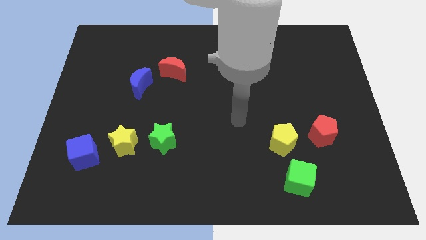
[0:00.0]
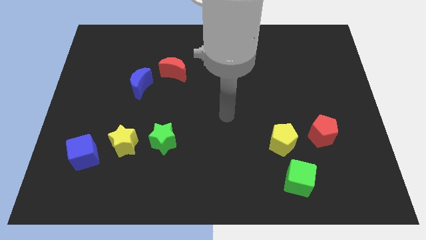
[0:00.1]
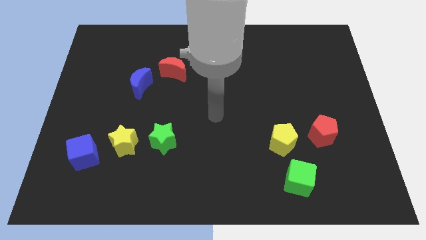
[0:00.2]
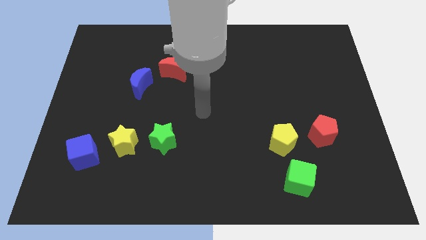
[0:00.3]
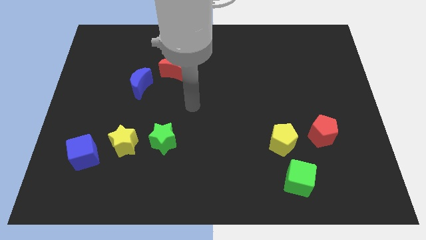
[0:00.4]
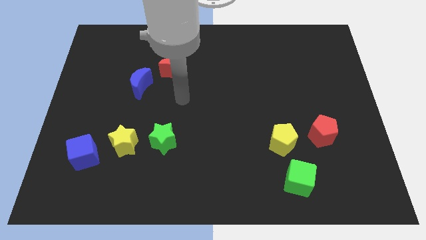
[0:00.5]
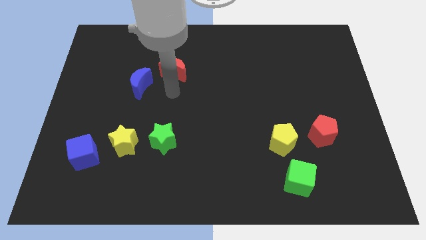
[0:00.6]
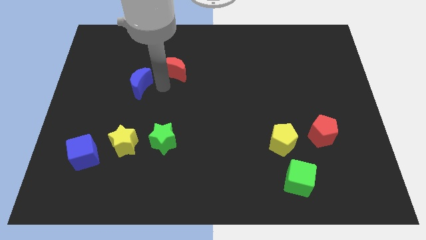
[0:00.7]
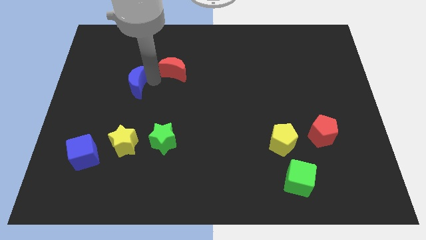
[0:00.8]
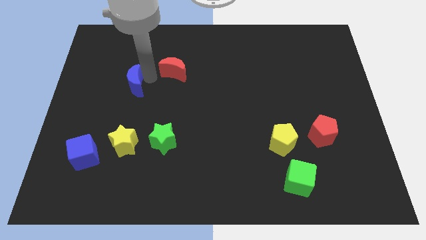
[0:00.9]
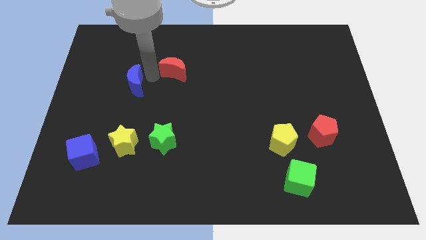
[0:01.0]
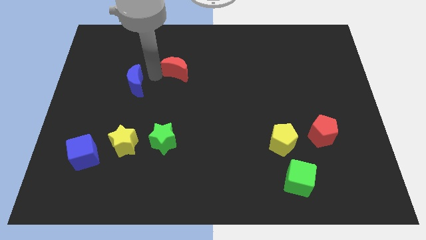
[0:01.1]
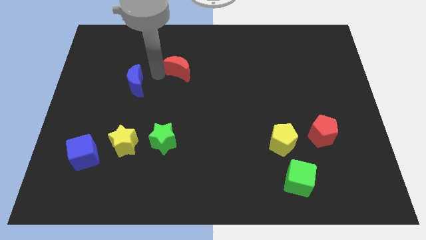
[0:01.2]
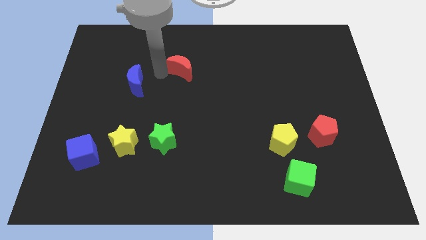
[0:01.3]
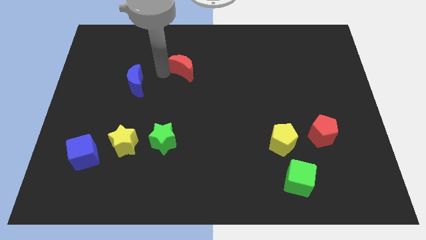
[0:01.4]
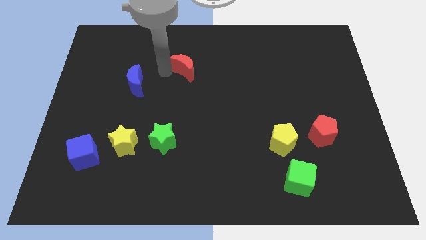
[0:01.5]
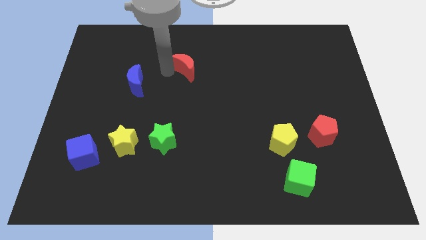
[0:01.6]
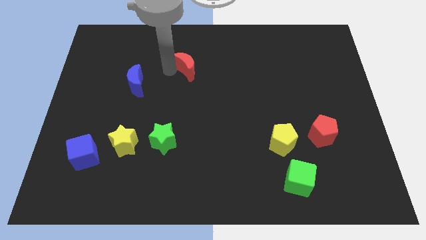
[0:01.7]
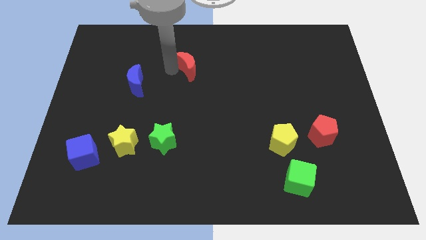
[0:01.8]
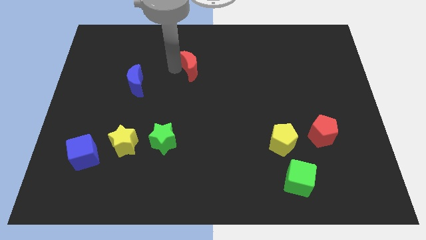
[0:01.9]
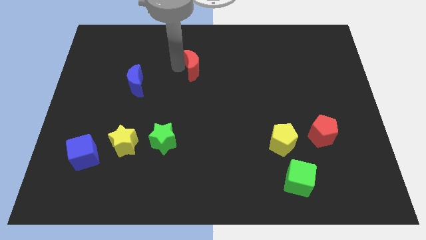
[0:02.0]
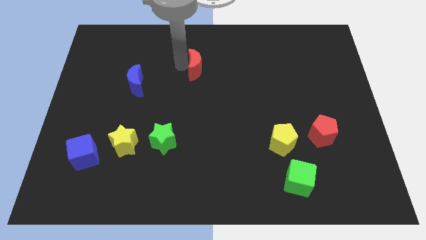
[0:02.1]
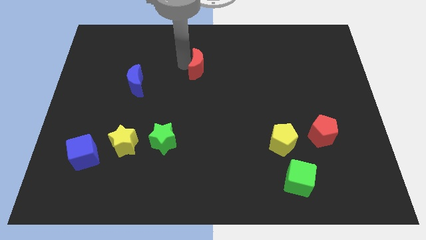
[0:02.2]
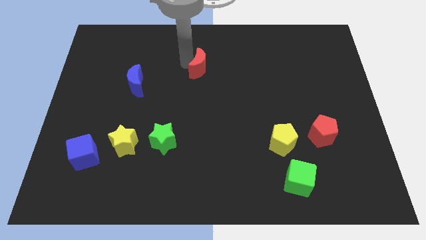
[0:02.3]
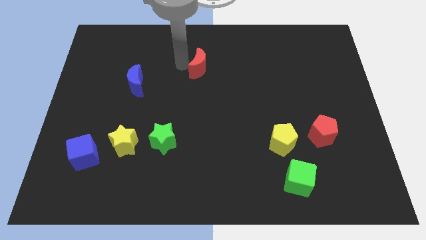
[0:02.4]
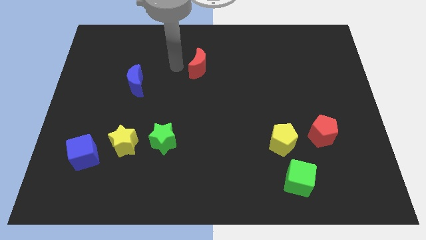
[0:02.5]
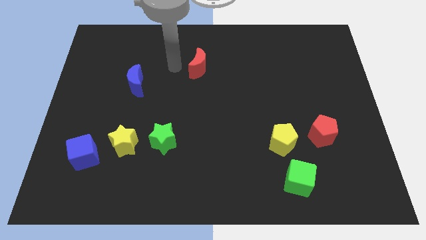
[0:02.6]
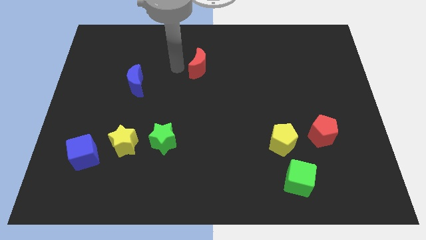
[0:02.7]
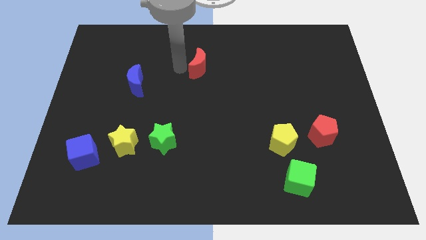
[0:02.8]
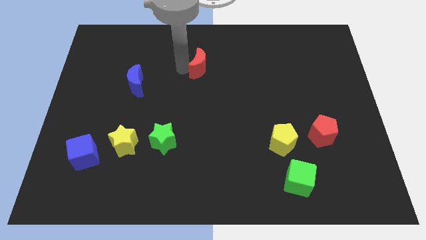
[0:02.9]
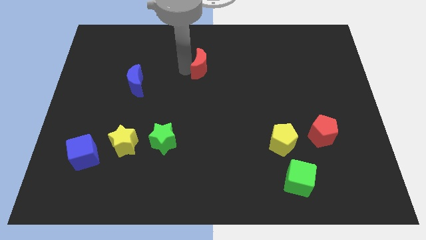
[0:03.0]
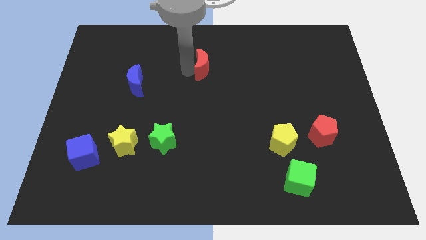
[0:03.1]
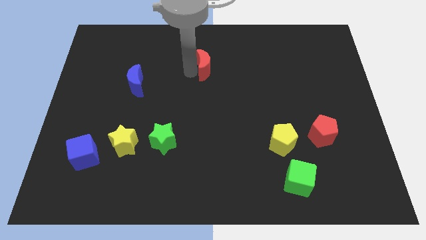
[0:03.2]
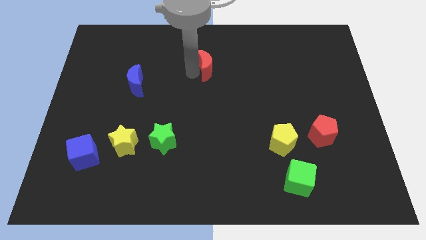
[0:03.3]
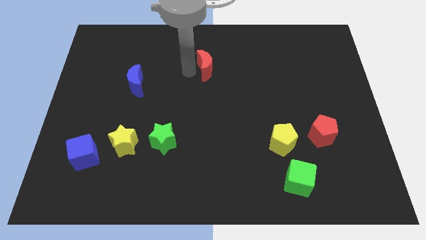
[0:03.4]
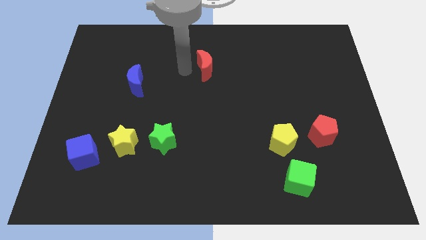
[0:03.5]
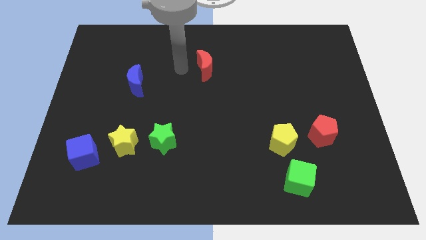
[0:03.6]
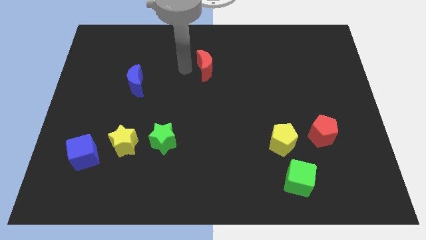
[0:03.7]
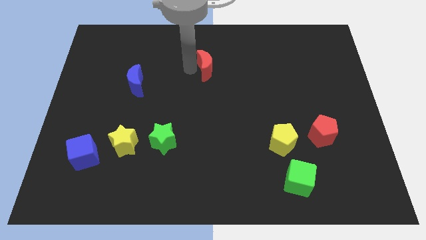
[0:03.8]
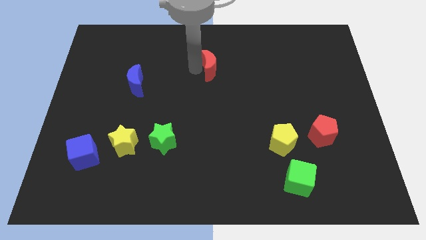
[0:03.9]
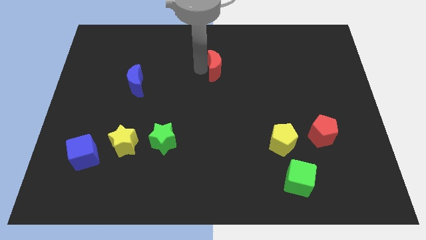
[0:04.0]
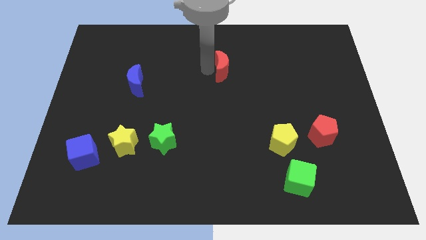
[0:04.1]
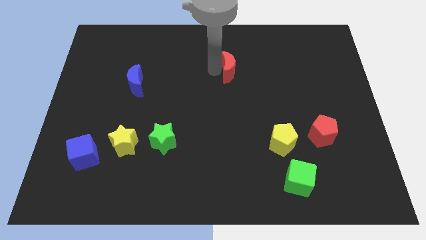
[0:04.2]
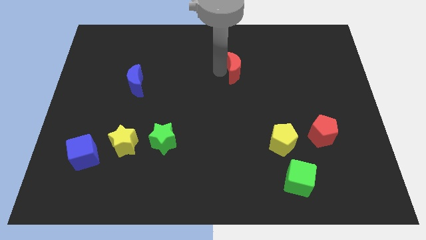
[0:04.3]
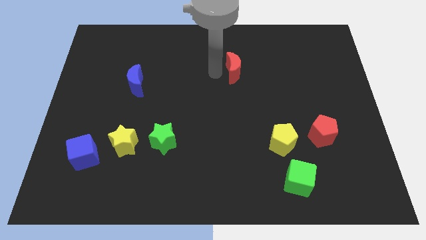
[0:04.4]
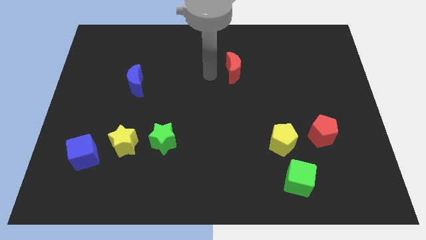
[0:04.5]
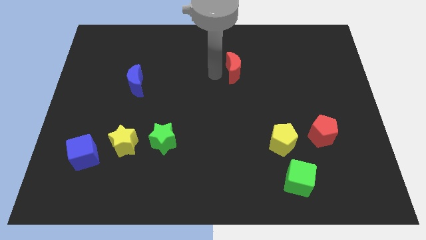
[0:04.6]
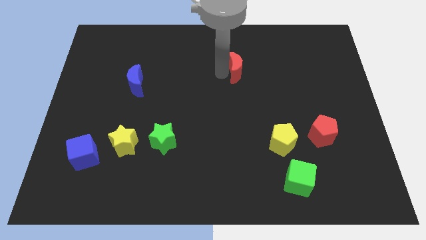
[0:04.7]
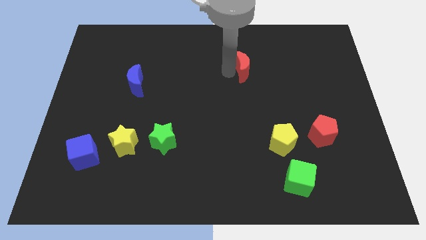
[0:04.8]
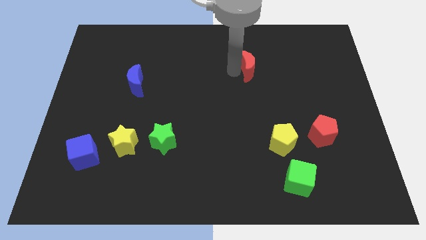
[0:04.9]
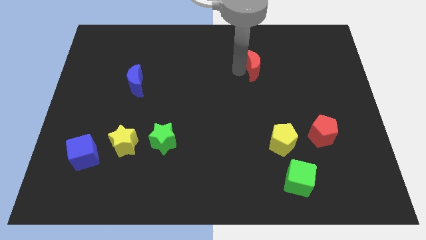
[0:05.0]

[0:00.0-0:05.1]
push the red moon right

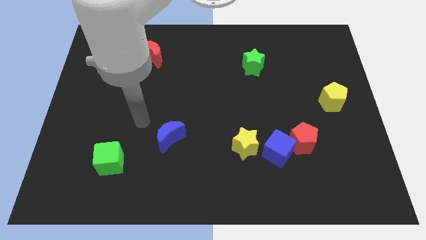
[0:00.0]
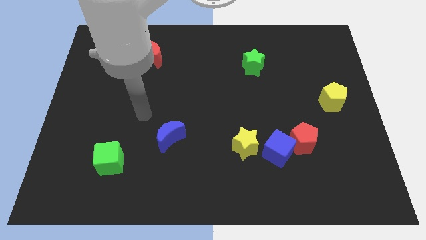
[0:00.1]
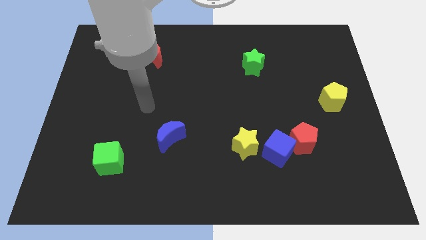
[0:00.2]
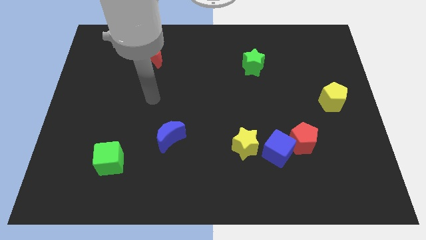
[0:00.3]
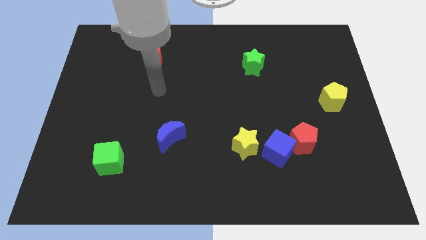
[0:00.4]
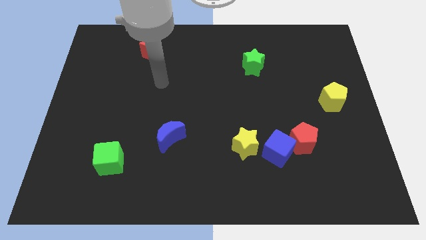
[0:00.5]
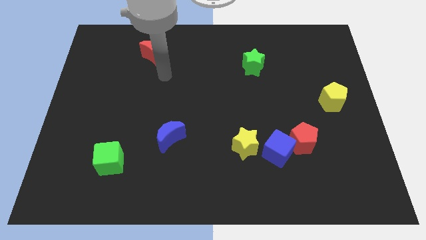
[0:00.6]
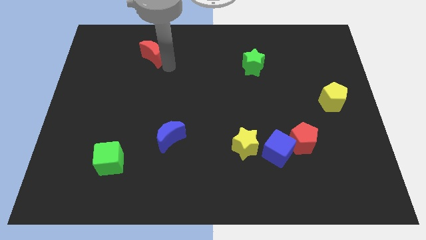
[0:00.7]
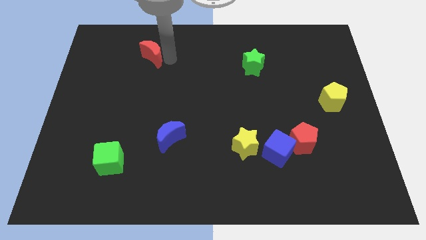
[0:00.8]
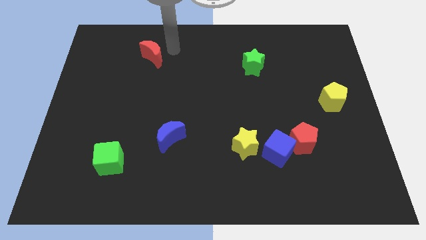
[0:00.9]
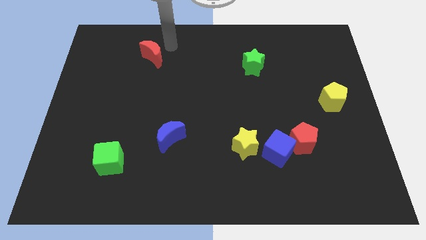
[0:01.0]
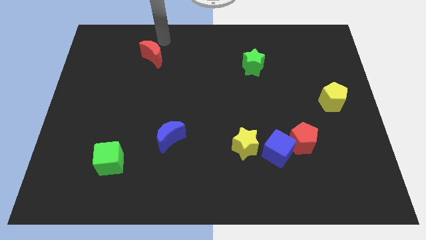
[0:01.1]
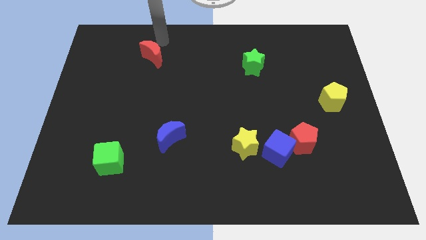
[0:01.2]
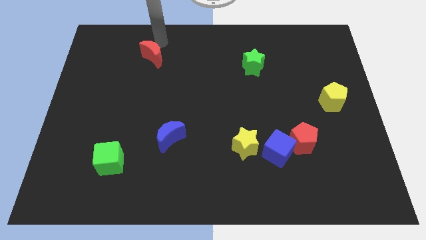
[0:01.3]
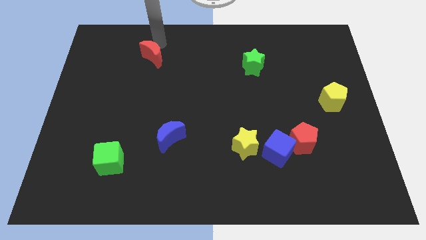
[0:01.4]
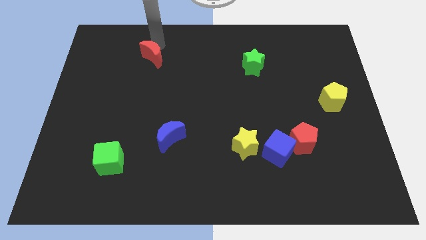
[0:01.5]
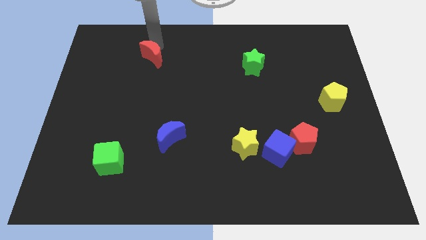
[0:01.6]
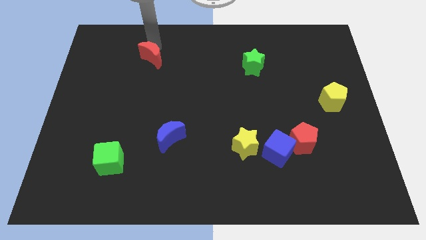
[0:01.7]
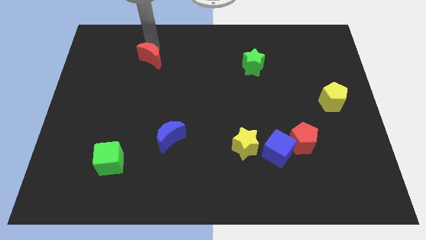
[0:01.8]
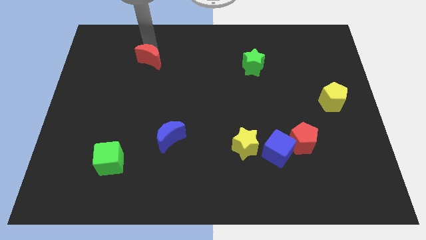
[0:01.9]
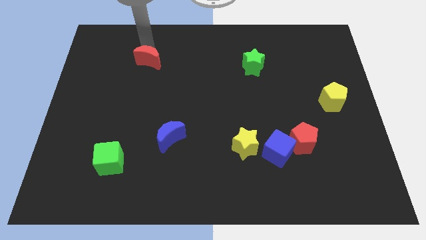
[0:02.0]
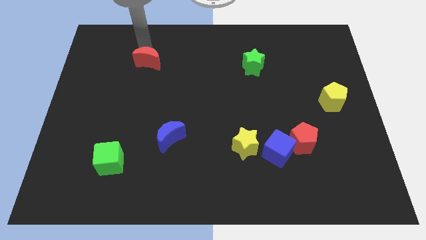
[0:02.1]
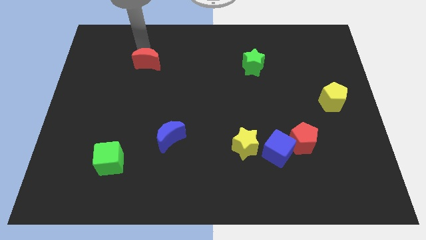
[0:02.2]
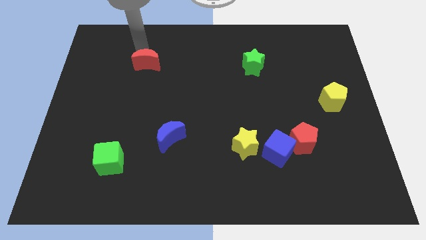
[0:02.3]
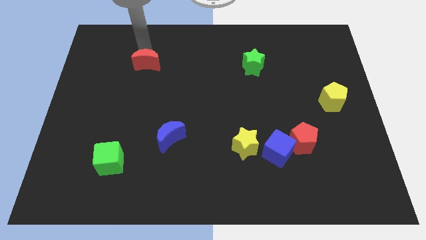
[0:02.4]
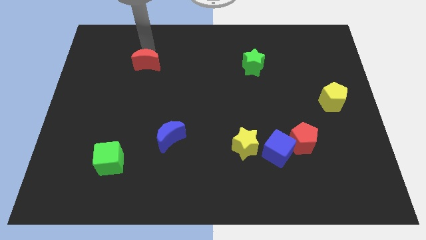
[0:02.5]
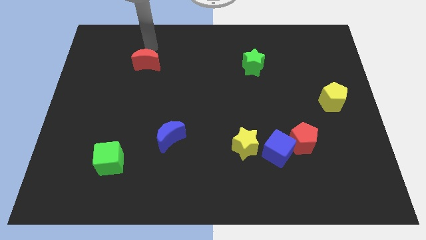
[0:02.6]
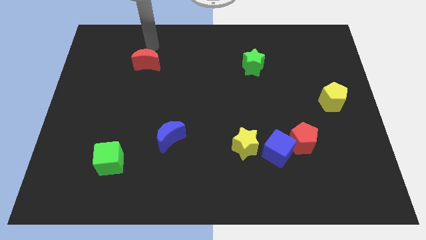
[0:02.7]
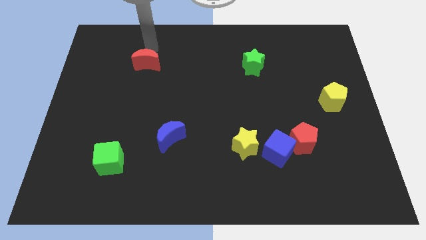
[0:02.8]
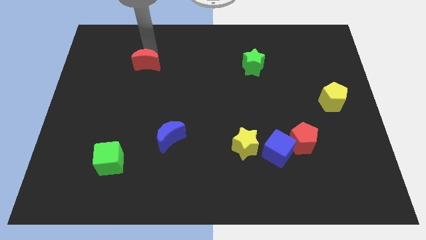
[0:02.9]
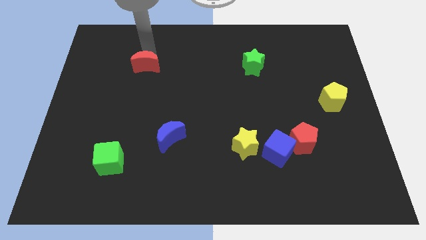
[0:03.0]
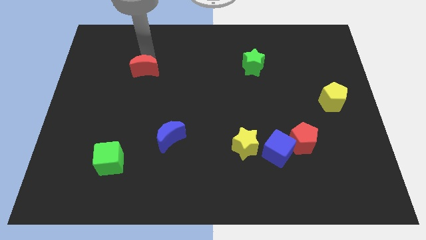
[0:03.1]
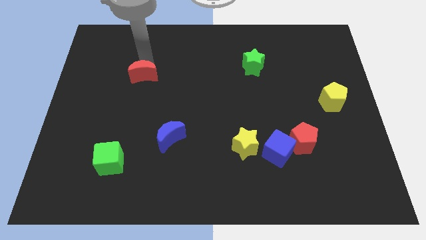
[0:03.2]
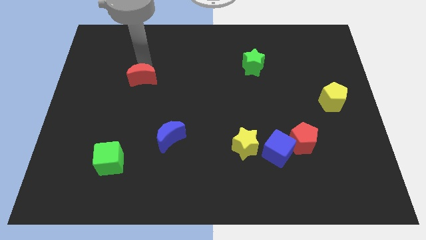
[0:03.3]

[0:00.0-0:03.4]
slide the red moon downwards a little bit
